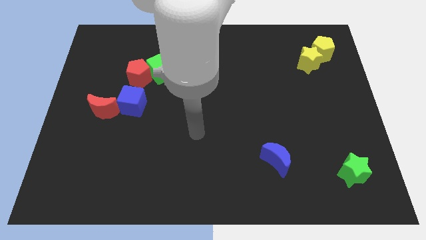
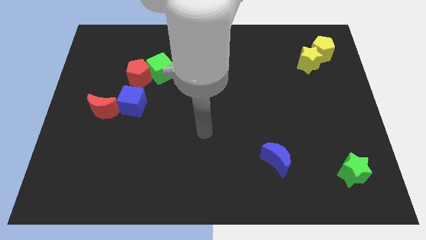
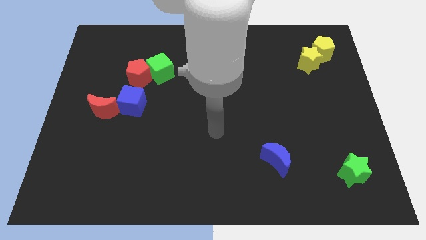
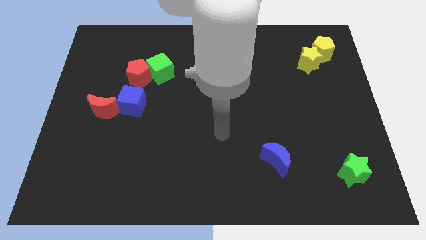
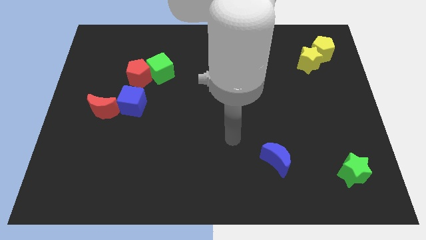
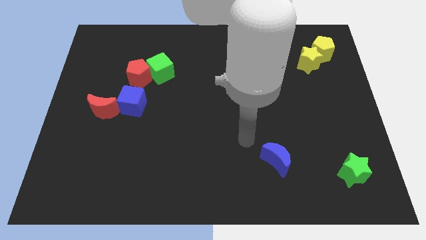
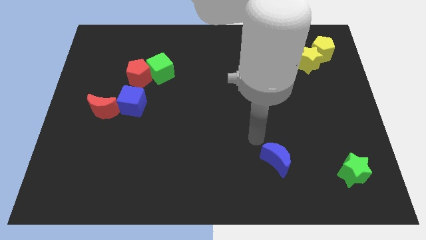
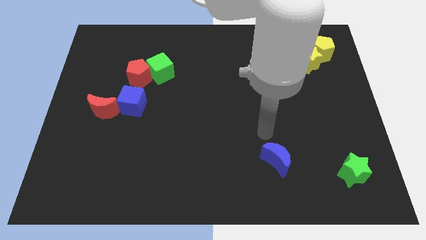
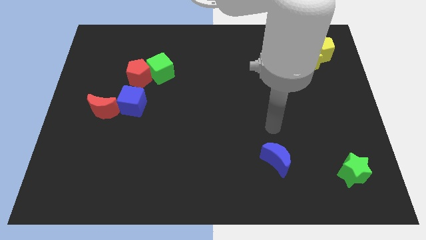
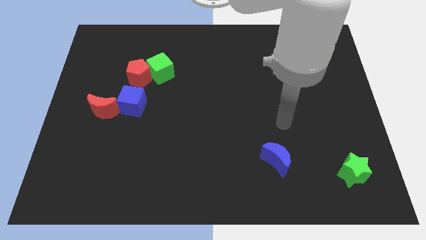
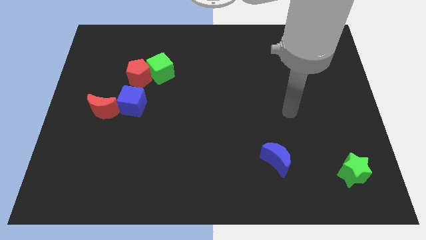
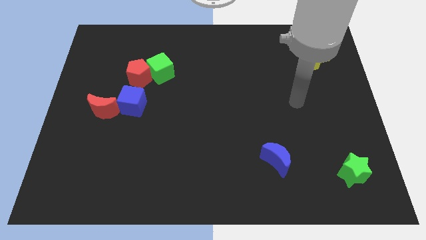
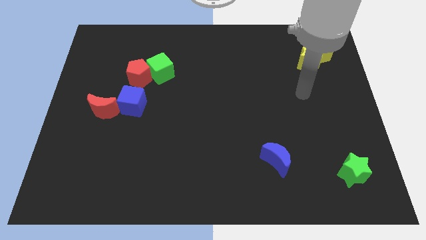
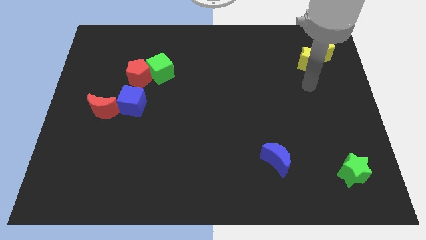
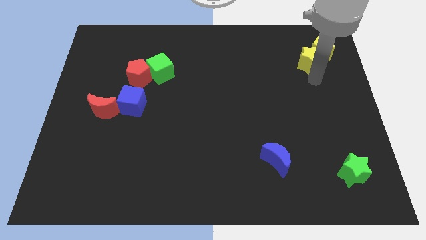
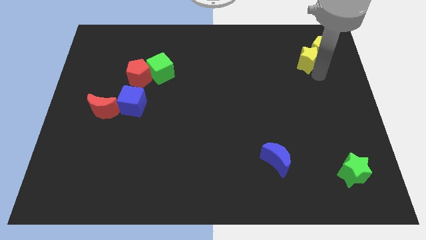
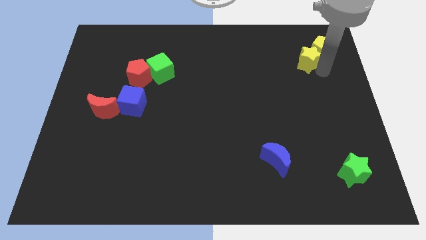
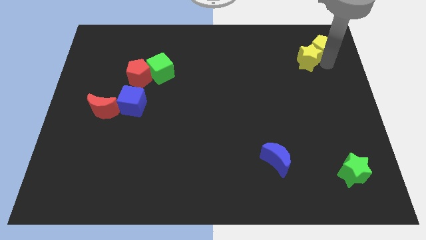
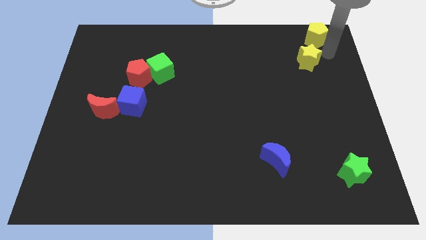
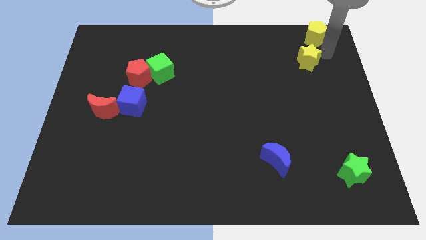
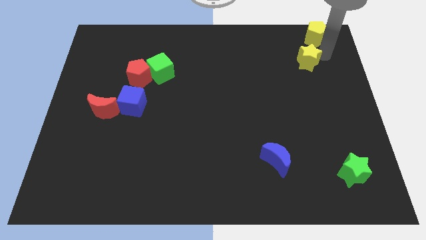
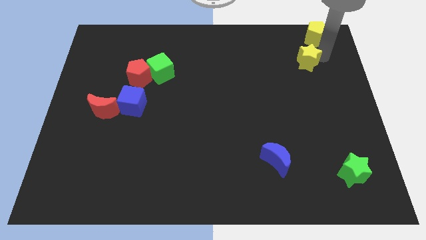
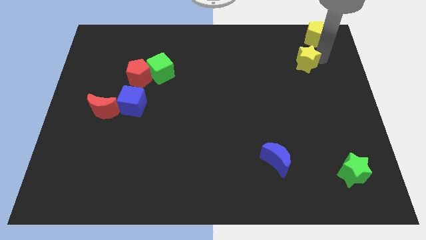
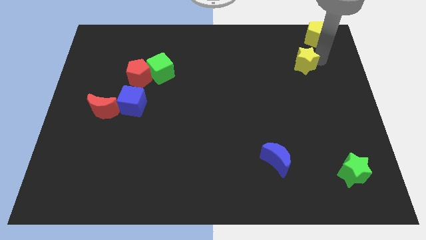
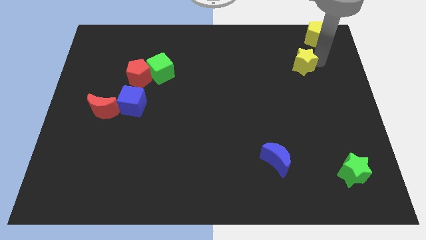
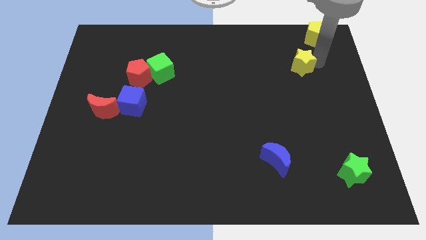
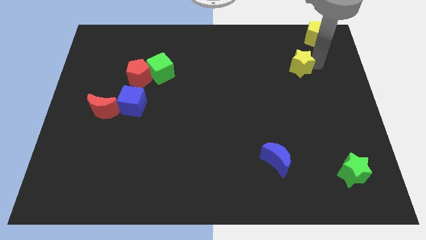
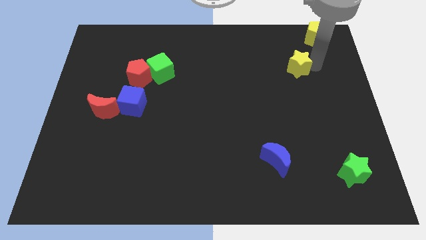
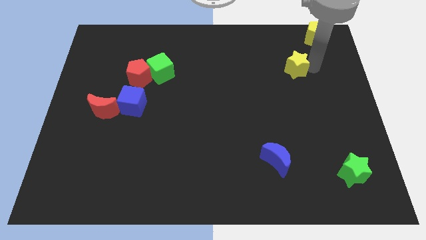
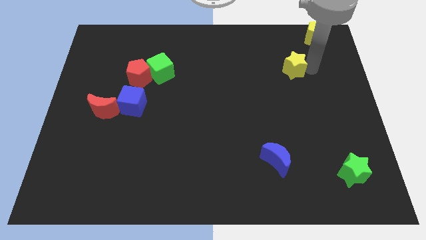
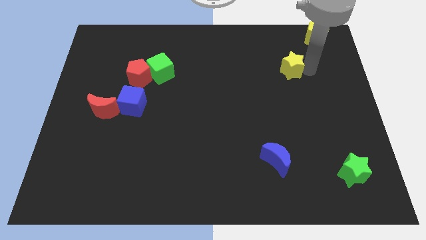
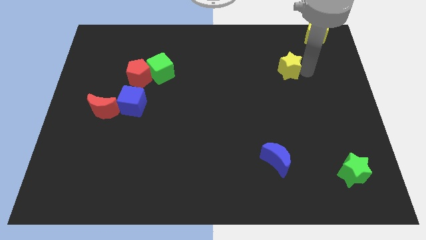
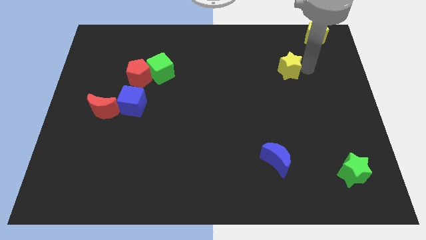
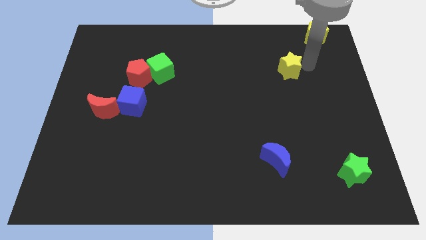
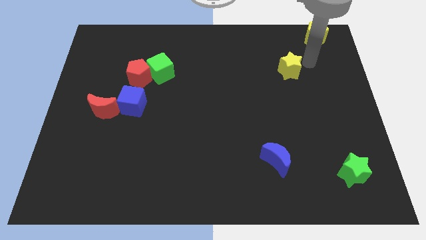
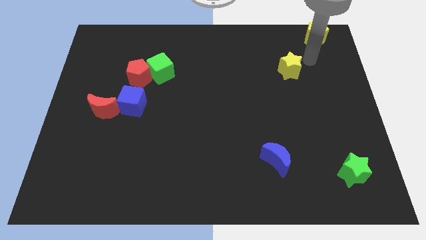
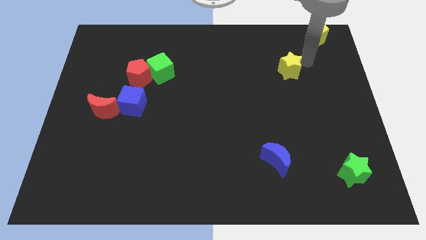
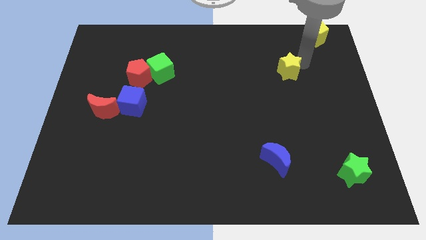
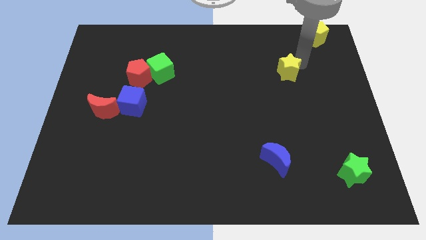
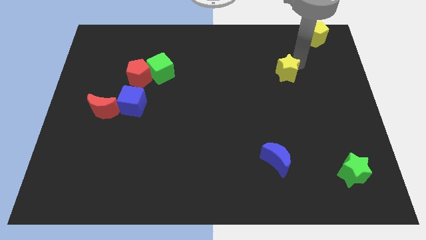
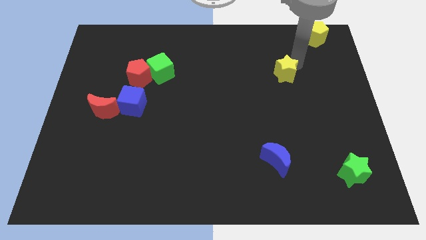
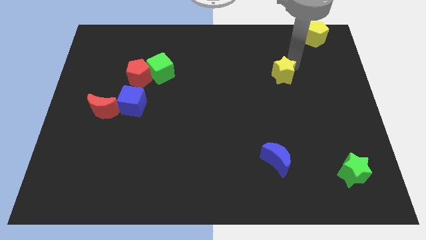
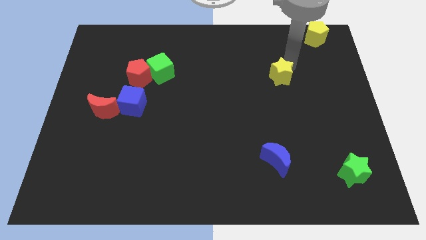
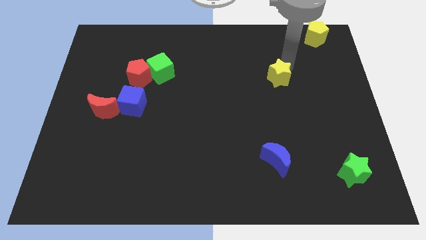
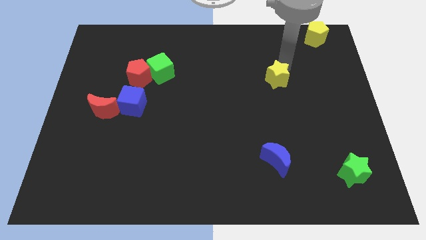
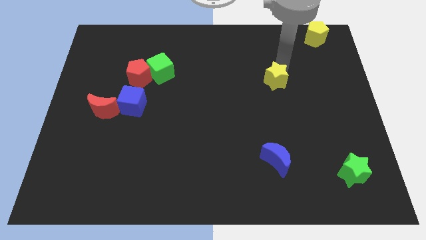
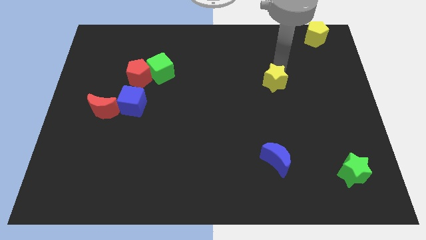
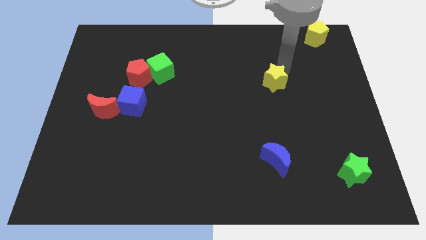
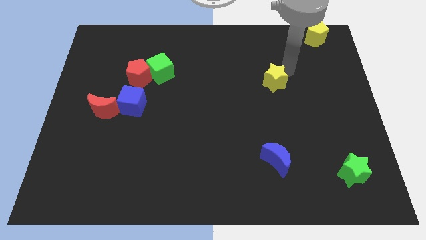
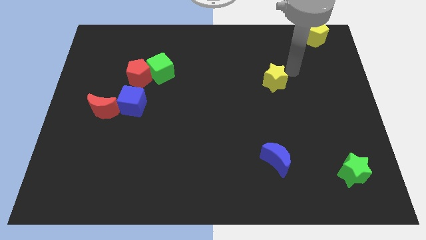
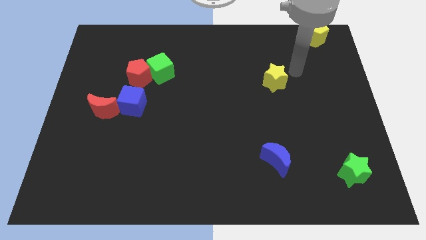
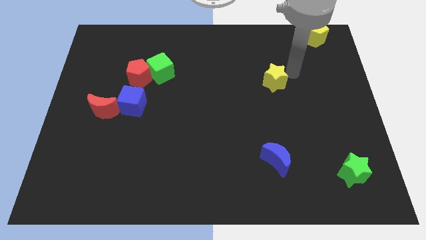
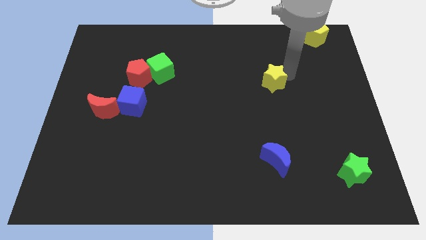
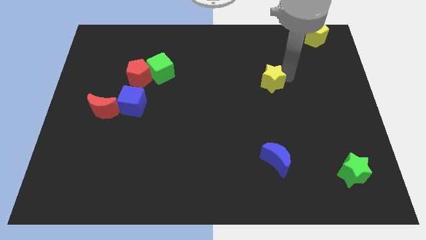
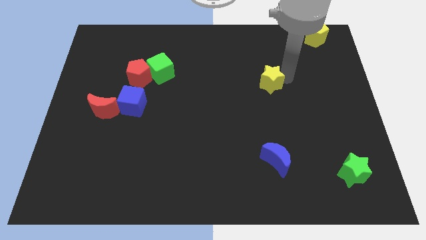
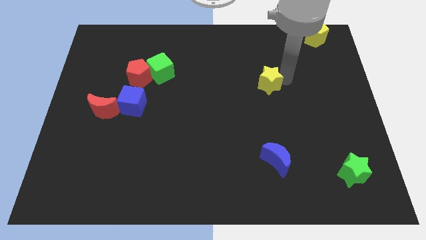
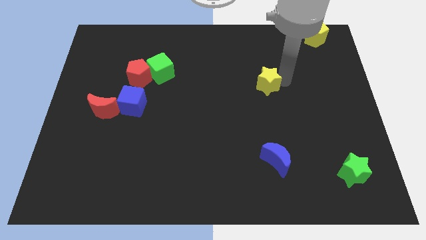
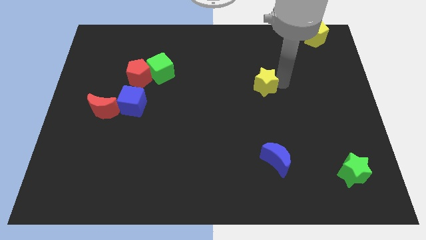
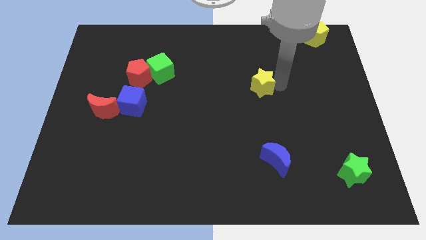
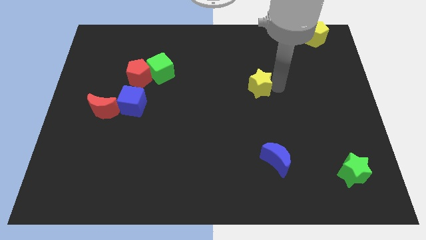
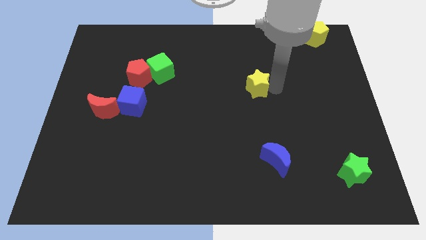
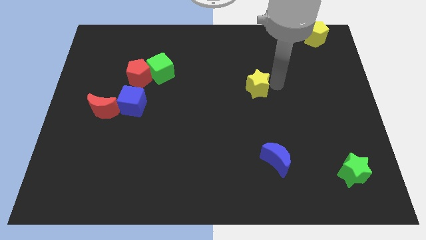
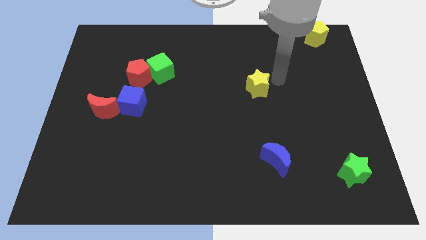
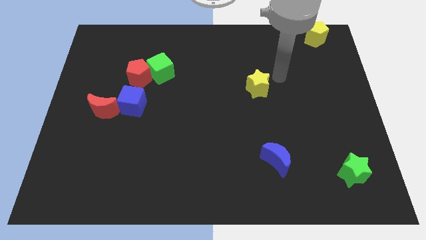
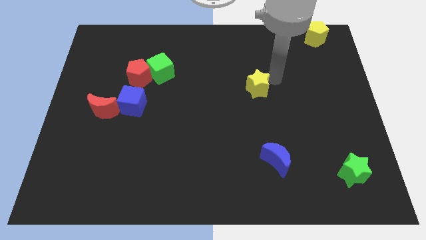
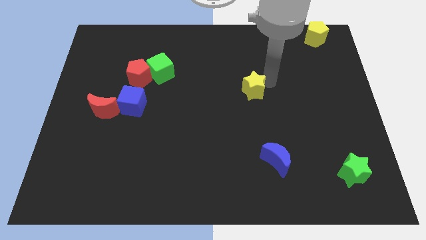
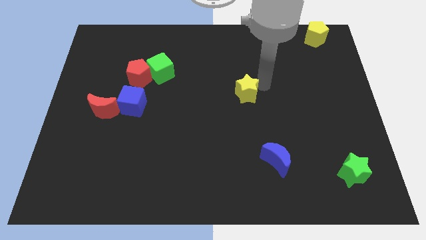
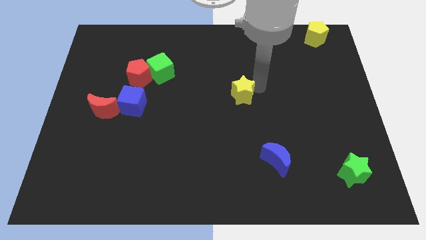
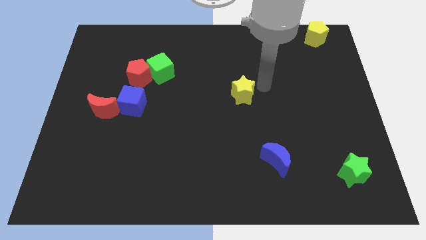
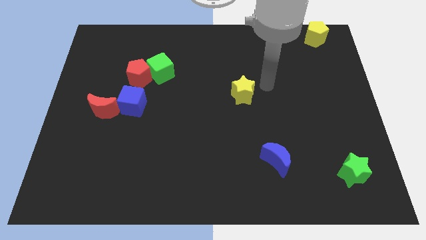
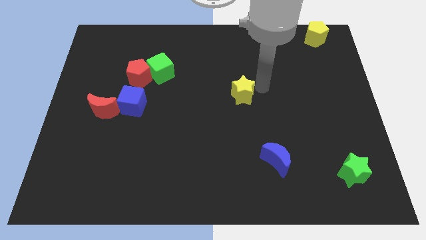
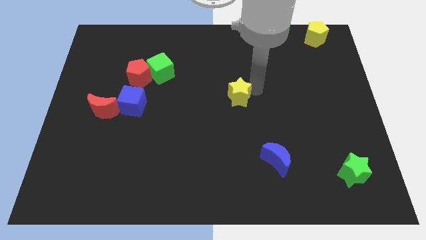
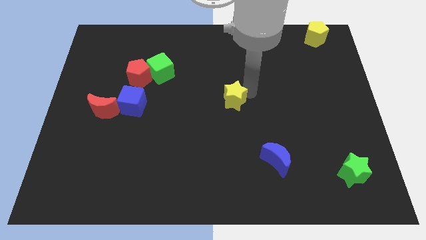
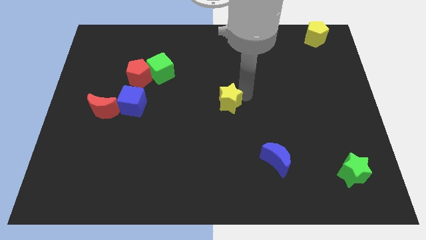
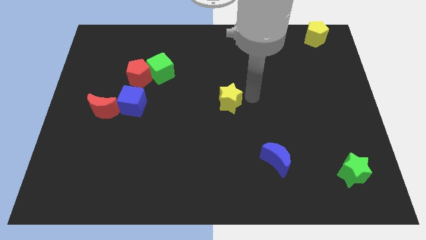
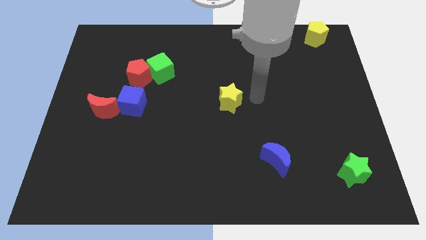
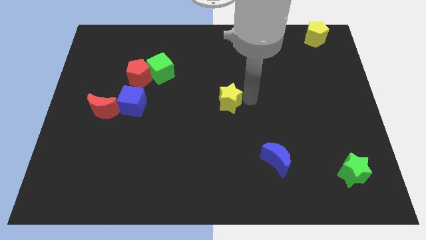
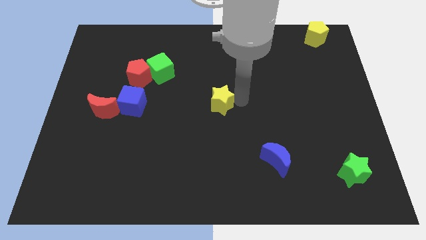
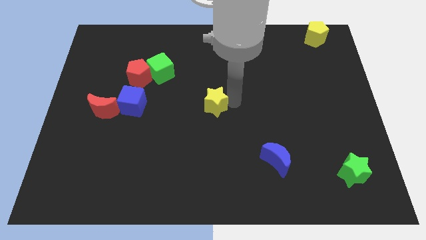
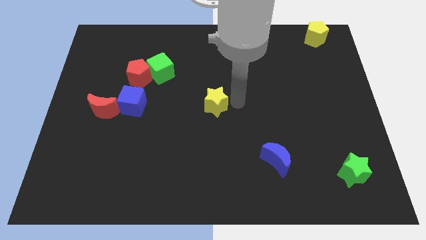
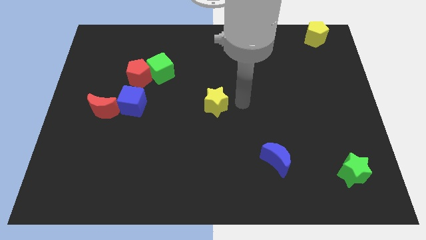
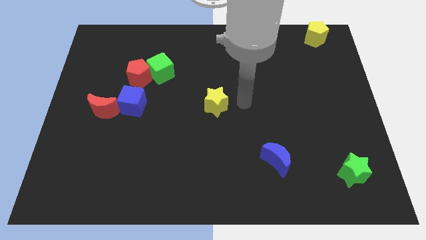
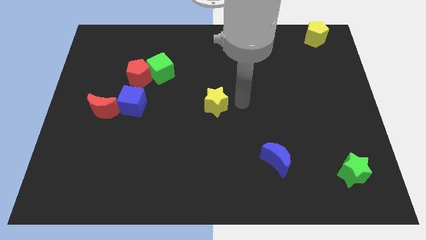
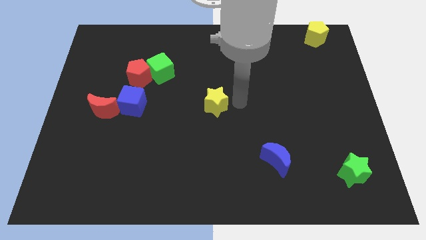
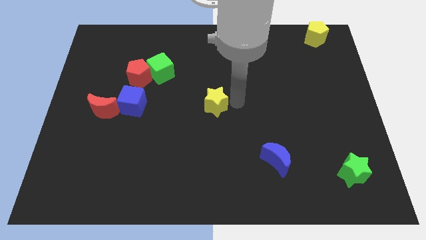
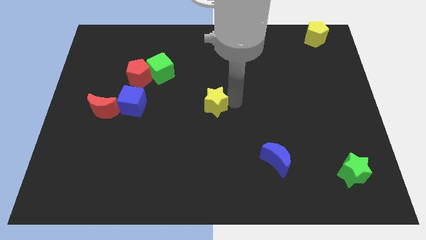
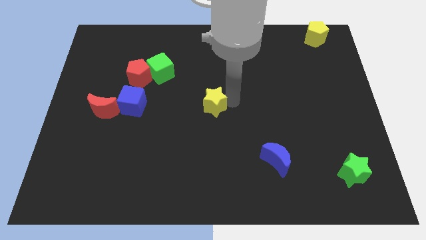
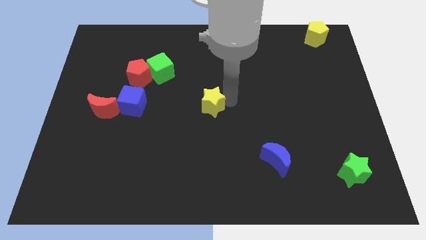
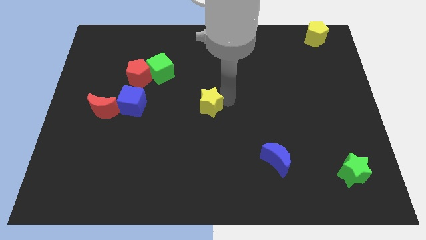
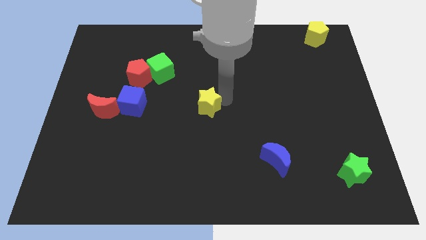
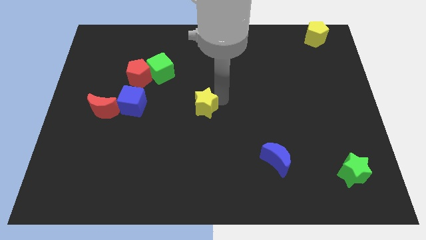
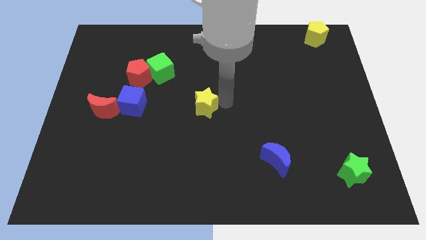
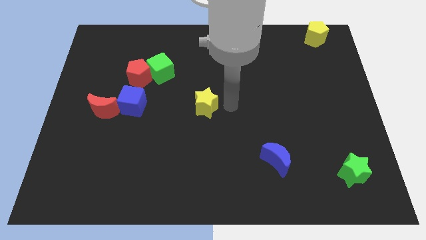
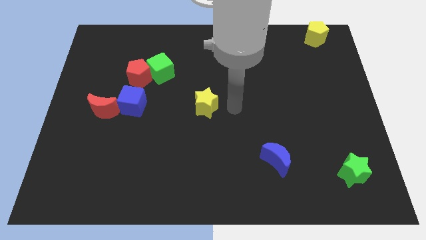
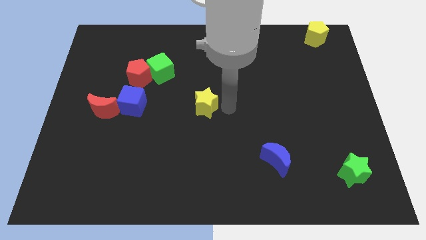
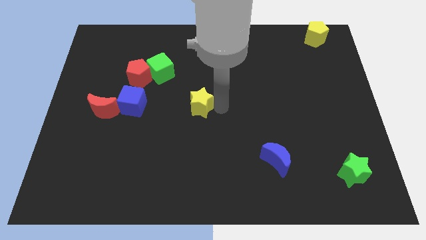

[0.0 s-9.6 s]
put the yellow star to the right side of the blue cube
